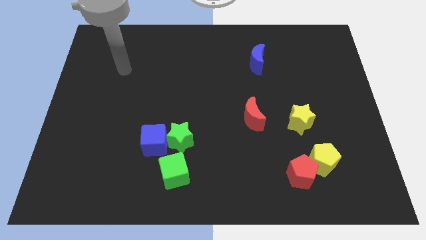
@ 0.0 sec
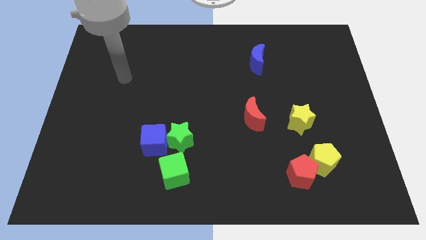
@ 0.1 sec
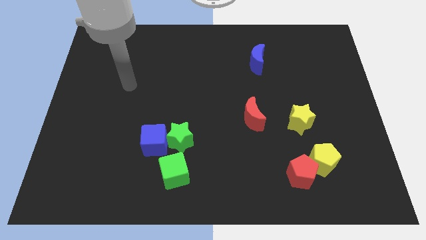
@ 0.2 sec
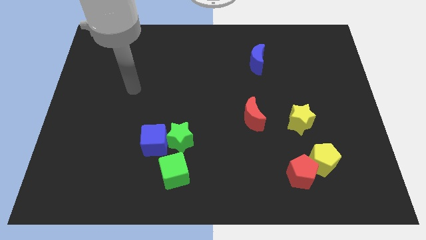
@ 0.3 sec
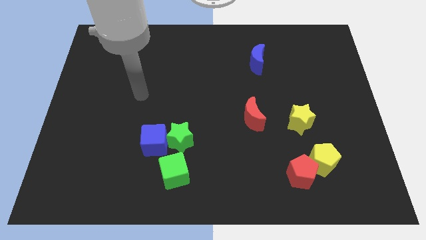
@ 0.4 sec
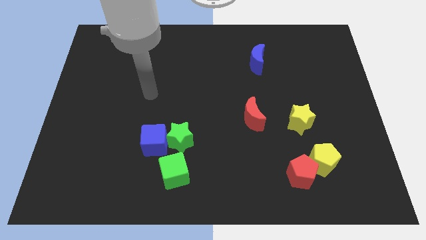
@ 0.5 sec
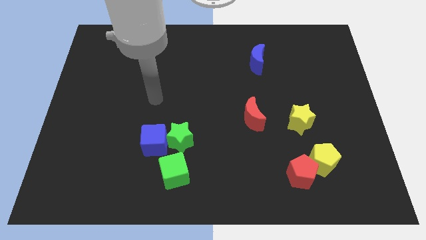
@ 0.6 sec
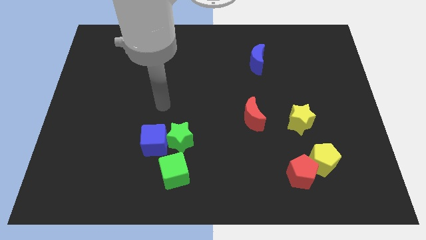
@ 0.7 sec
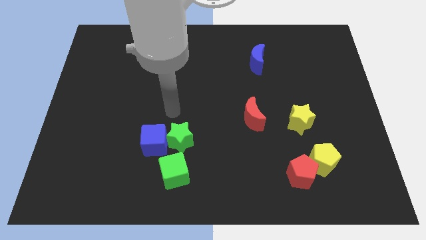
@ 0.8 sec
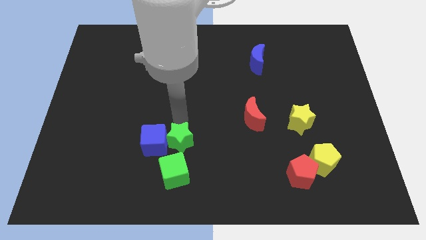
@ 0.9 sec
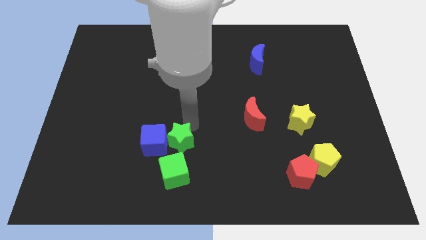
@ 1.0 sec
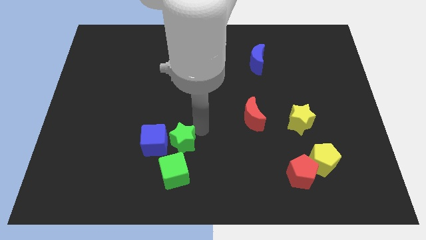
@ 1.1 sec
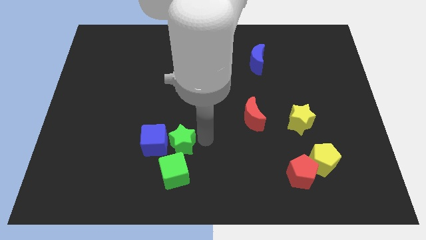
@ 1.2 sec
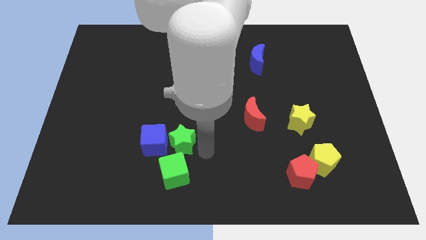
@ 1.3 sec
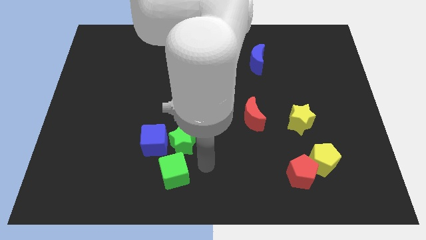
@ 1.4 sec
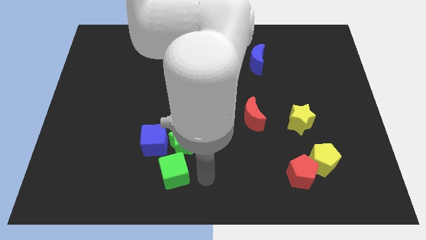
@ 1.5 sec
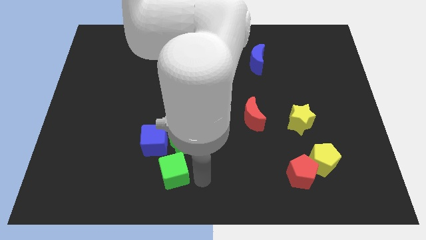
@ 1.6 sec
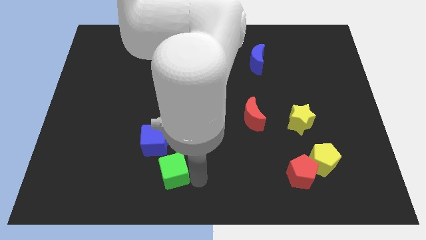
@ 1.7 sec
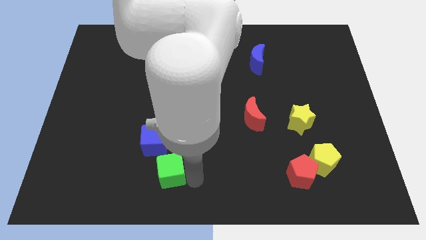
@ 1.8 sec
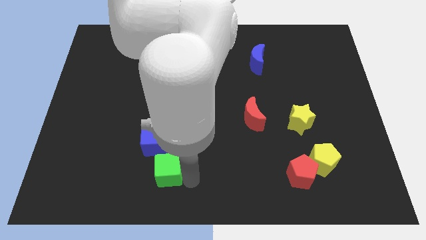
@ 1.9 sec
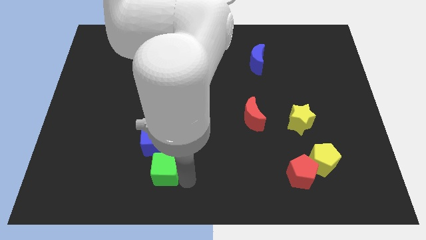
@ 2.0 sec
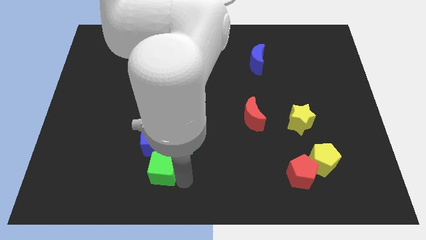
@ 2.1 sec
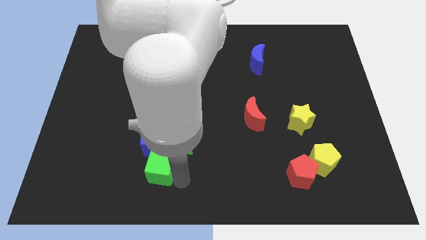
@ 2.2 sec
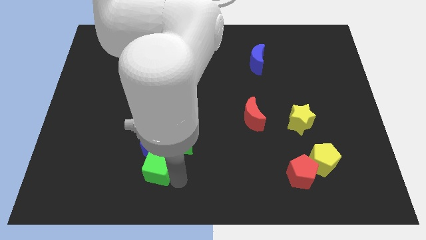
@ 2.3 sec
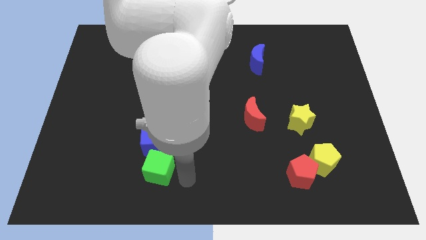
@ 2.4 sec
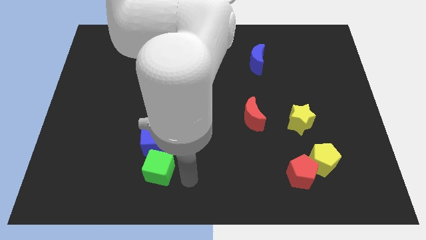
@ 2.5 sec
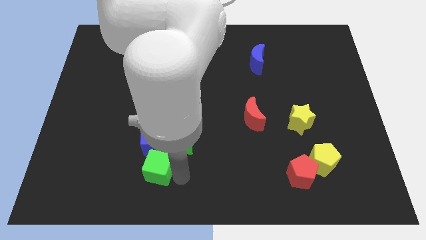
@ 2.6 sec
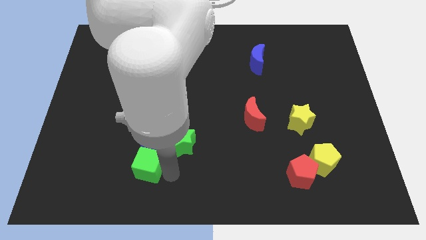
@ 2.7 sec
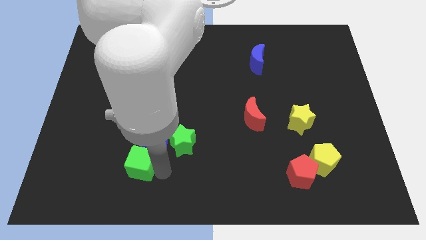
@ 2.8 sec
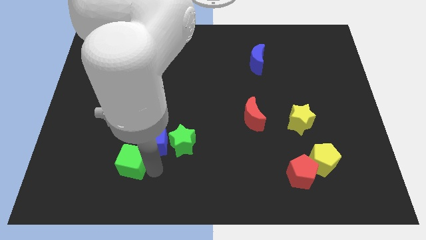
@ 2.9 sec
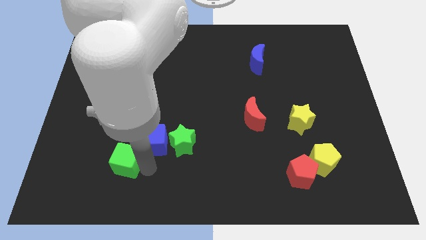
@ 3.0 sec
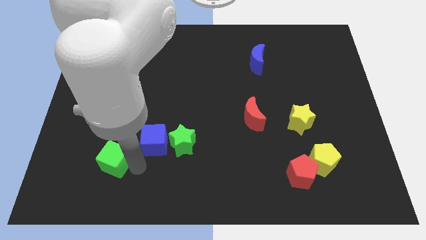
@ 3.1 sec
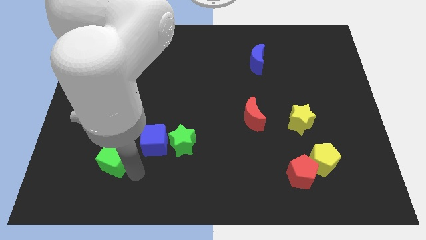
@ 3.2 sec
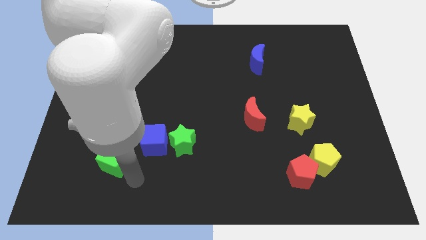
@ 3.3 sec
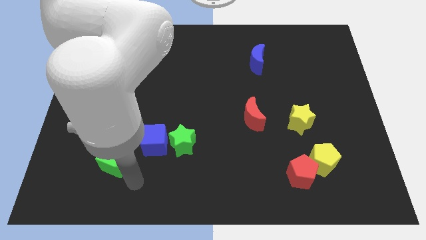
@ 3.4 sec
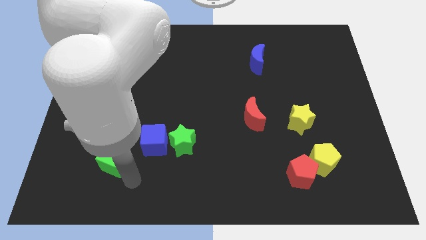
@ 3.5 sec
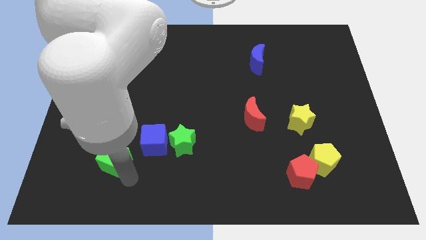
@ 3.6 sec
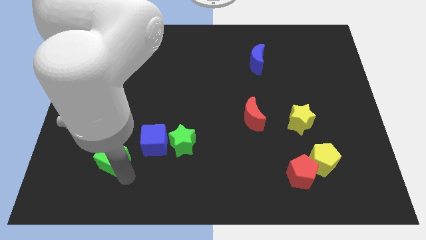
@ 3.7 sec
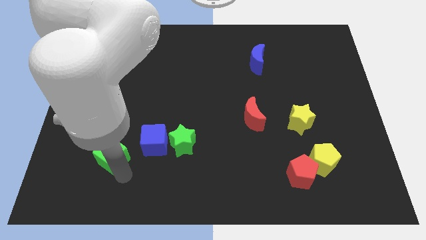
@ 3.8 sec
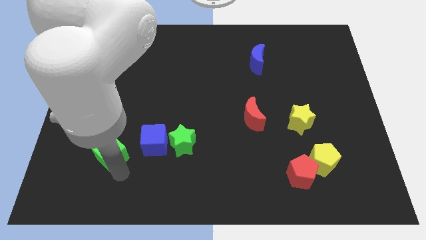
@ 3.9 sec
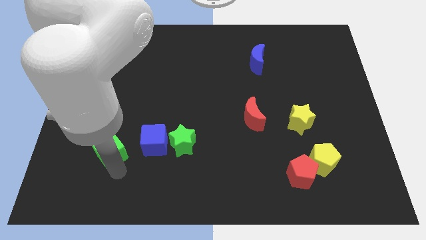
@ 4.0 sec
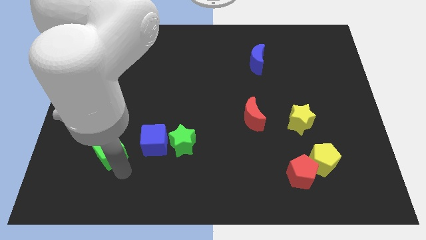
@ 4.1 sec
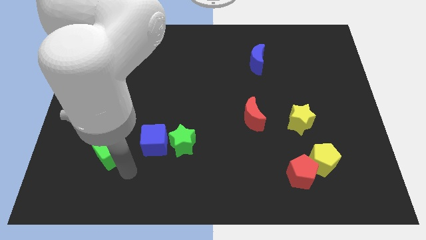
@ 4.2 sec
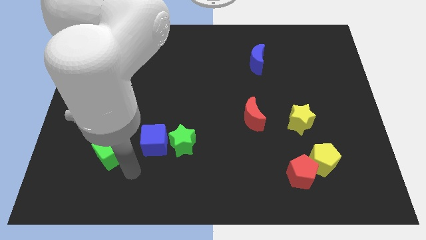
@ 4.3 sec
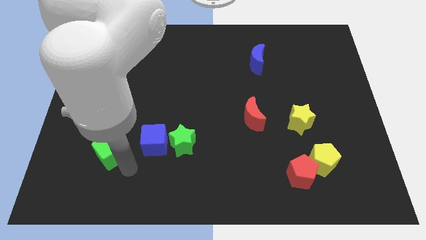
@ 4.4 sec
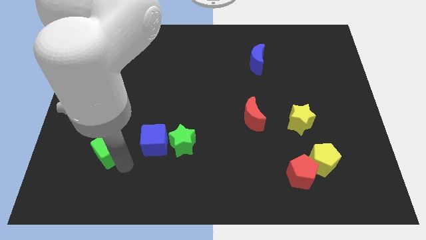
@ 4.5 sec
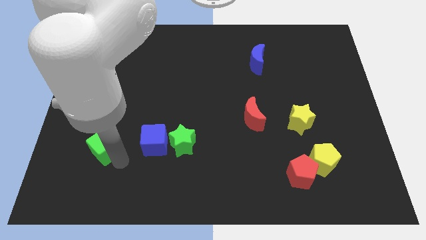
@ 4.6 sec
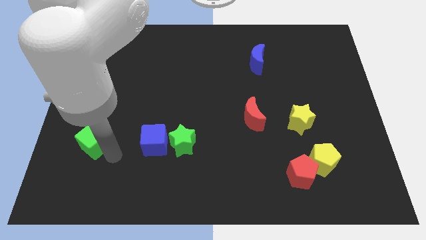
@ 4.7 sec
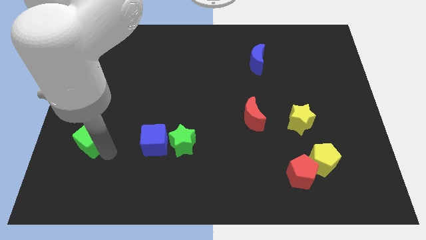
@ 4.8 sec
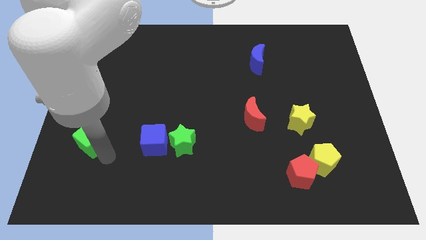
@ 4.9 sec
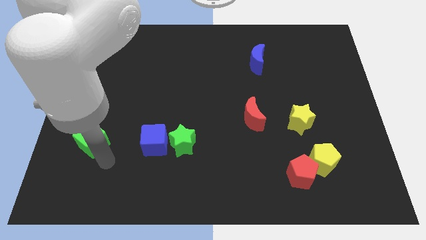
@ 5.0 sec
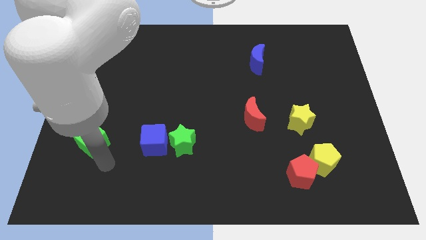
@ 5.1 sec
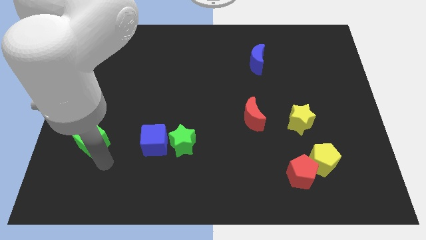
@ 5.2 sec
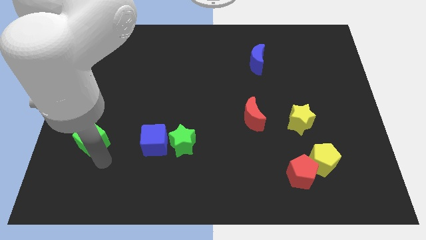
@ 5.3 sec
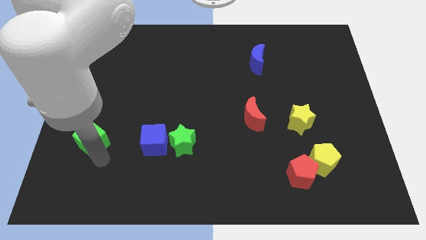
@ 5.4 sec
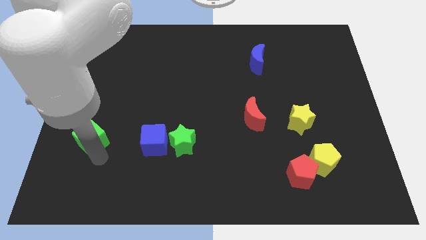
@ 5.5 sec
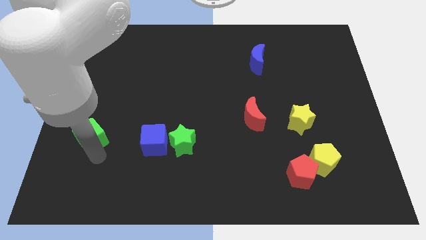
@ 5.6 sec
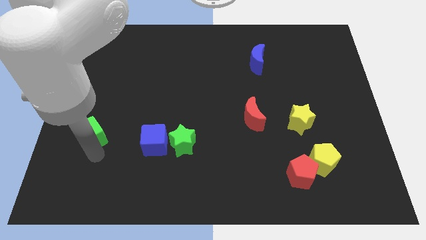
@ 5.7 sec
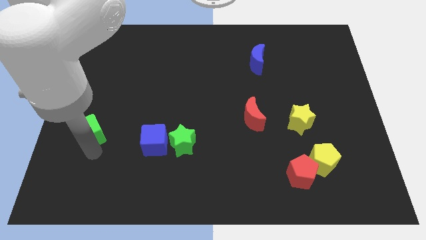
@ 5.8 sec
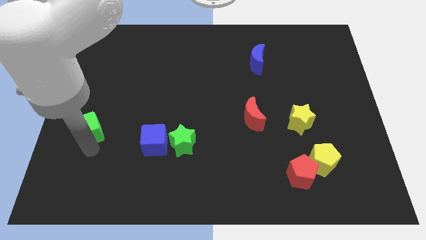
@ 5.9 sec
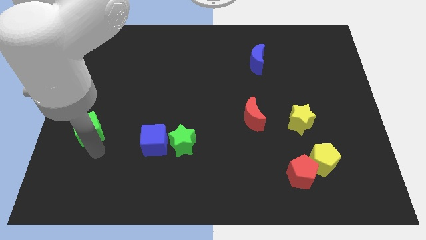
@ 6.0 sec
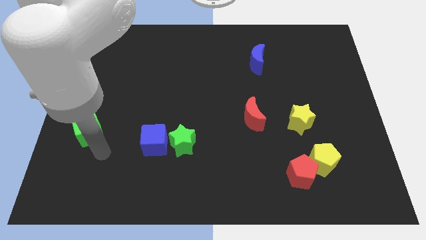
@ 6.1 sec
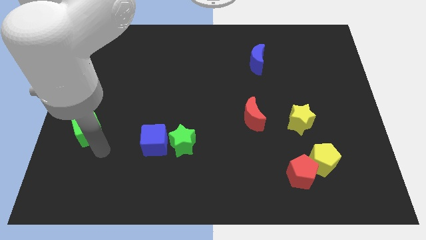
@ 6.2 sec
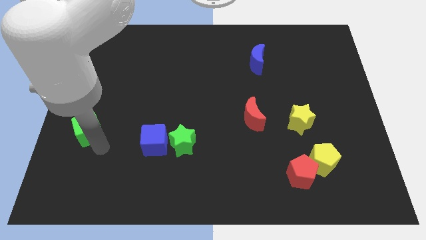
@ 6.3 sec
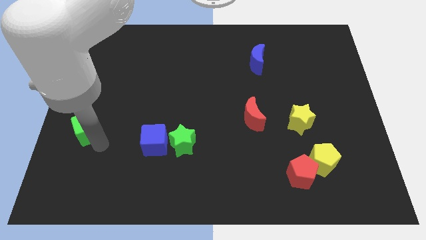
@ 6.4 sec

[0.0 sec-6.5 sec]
put the green cube to the center left
